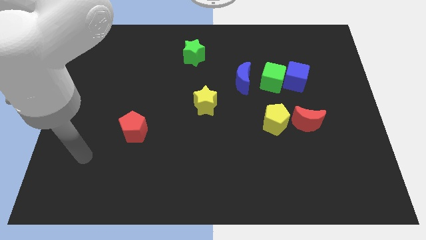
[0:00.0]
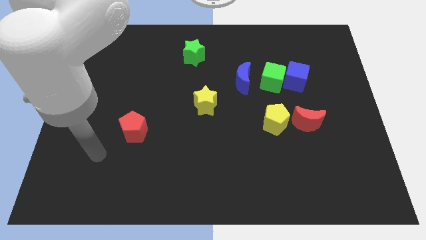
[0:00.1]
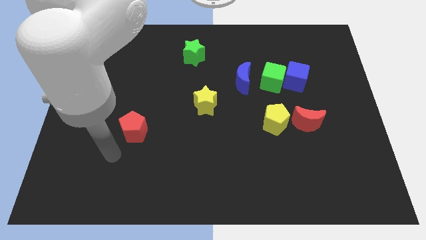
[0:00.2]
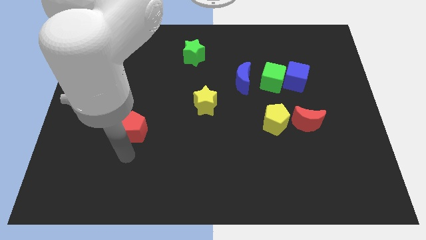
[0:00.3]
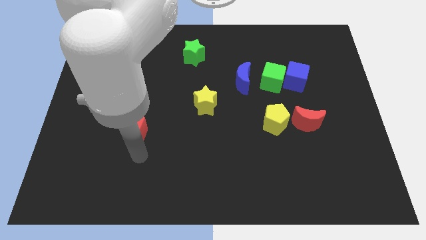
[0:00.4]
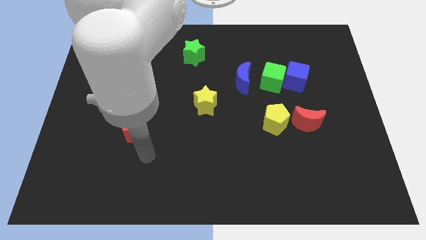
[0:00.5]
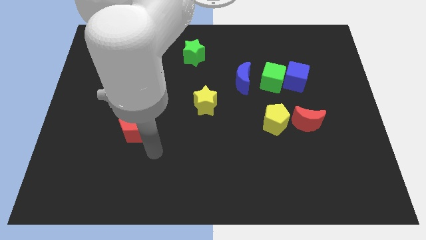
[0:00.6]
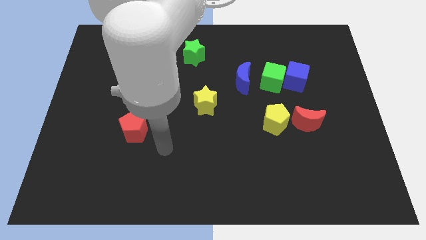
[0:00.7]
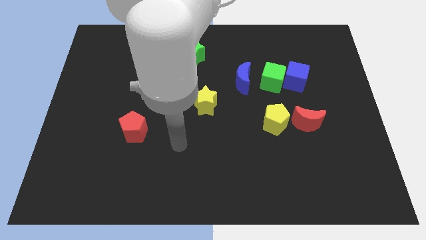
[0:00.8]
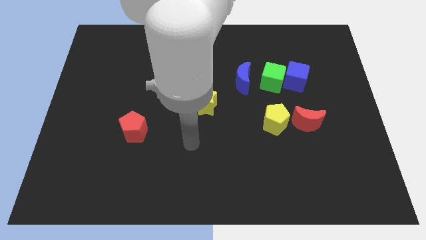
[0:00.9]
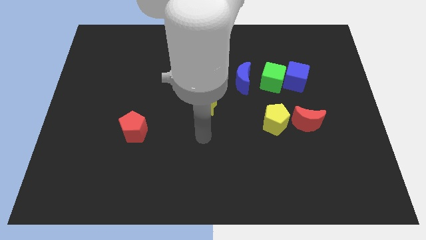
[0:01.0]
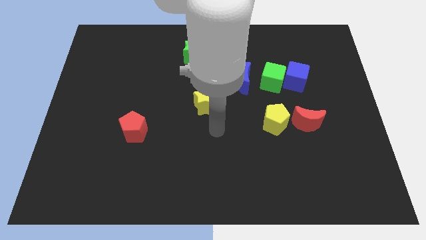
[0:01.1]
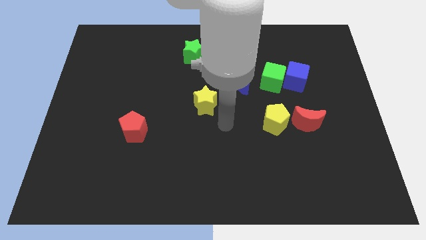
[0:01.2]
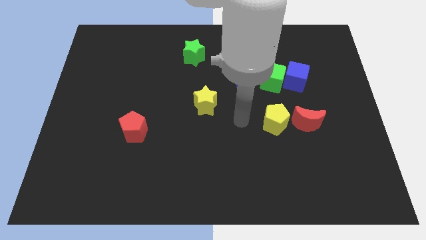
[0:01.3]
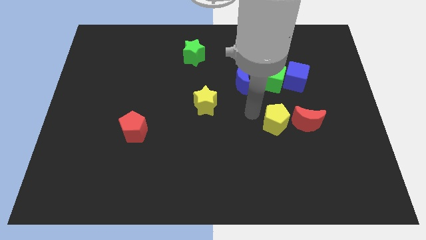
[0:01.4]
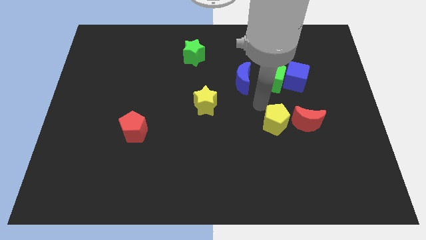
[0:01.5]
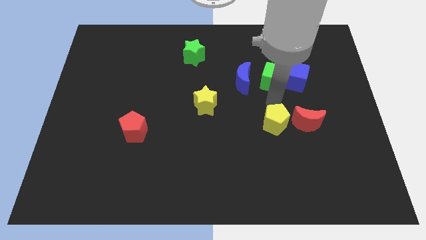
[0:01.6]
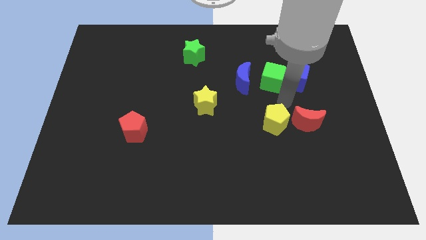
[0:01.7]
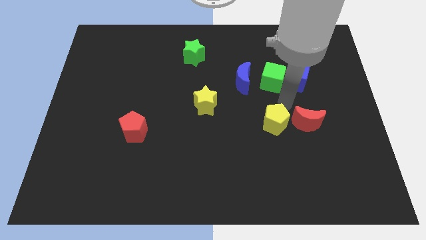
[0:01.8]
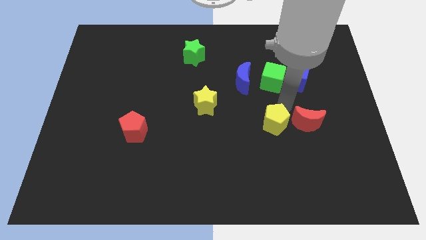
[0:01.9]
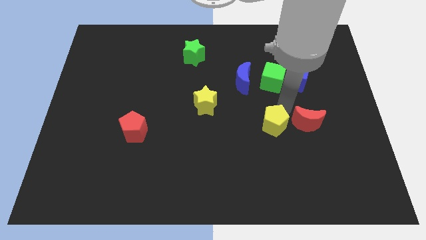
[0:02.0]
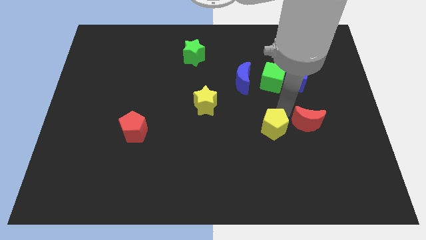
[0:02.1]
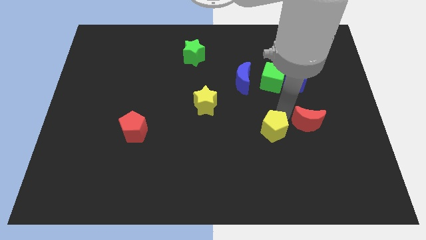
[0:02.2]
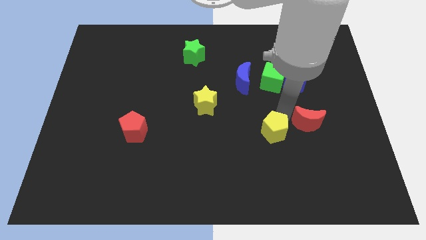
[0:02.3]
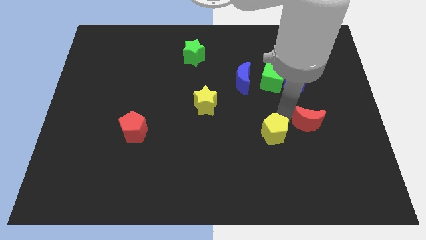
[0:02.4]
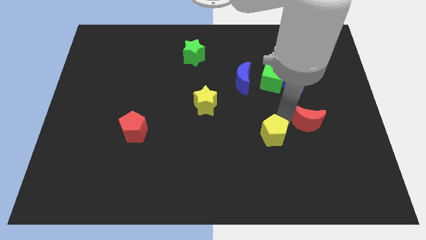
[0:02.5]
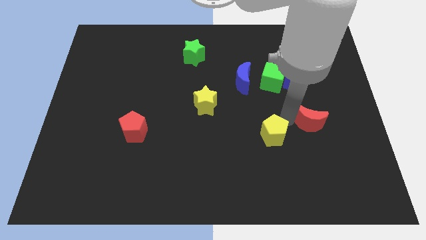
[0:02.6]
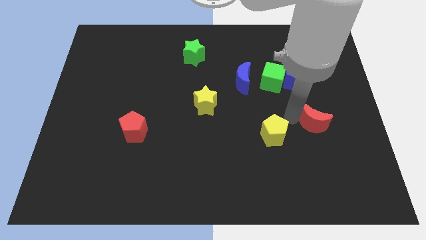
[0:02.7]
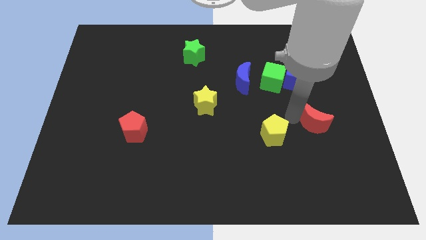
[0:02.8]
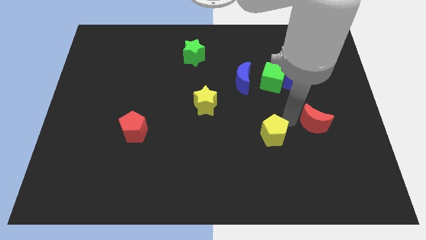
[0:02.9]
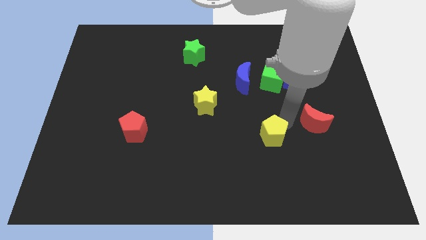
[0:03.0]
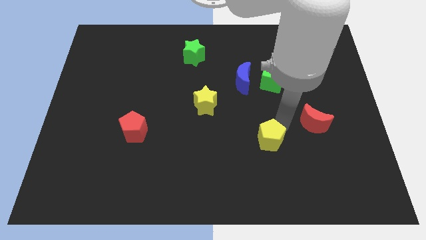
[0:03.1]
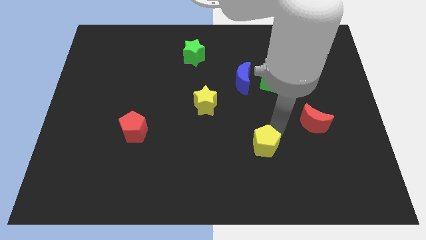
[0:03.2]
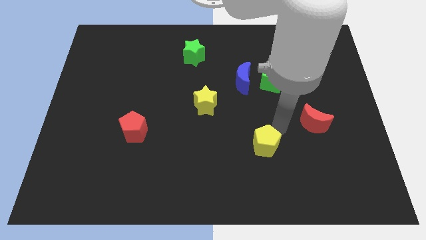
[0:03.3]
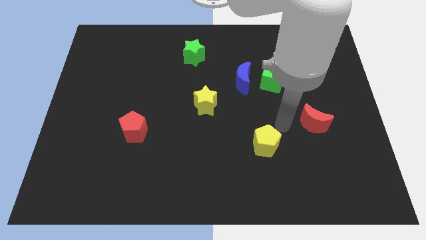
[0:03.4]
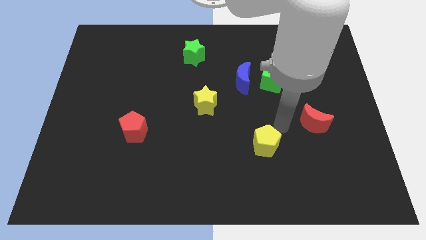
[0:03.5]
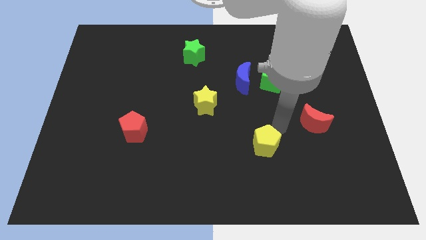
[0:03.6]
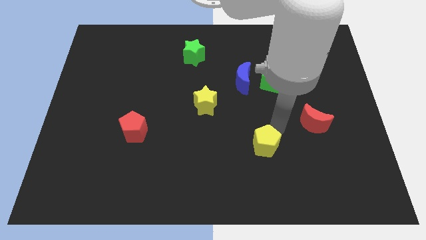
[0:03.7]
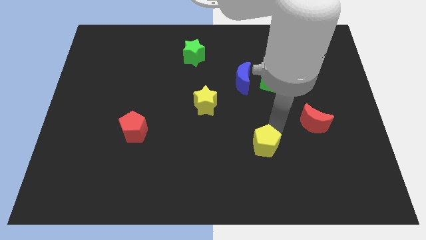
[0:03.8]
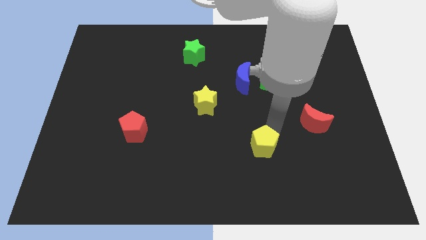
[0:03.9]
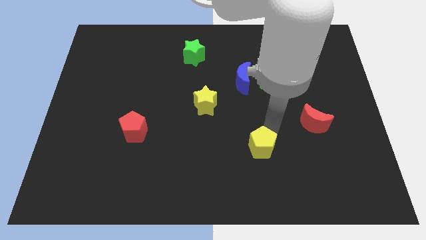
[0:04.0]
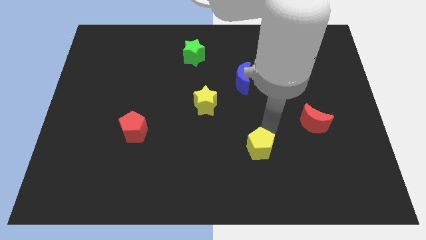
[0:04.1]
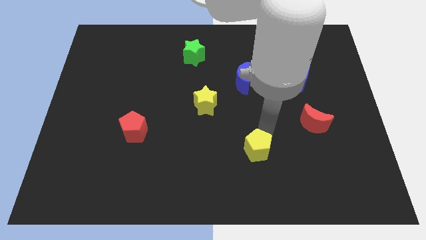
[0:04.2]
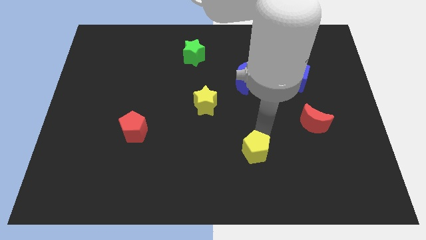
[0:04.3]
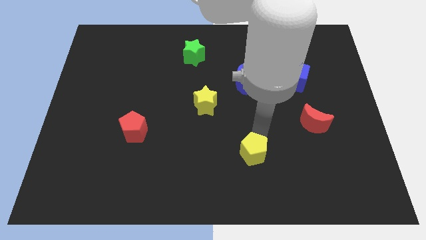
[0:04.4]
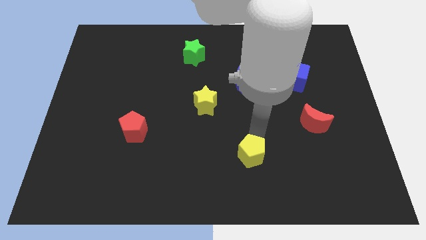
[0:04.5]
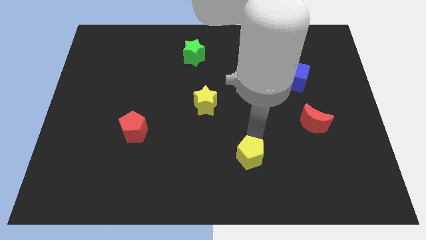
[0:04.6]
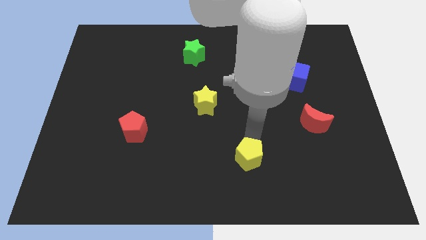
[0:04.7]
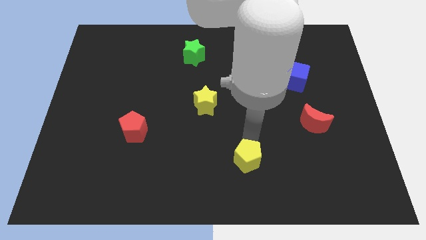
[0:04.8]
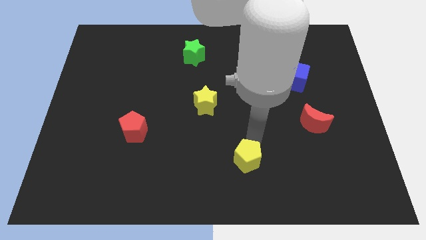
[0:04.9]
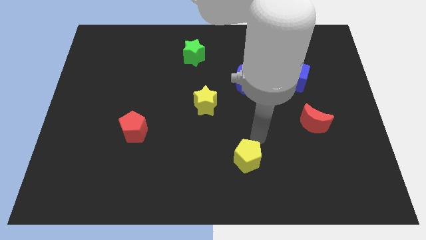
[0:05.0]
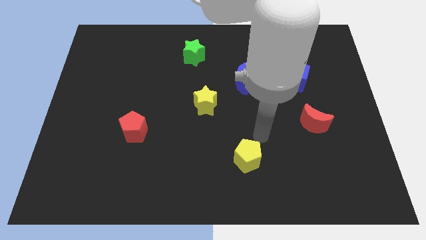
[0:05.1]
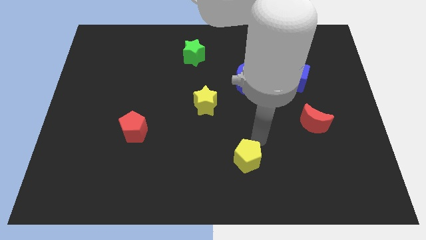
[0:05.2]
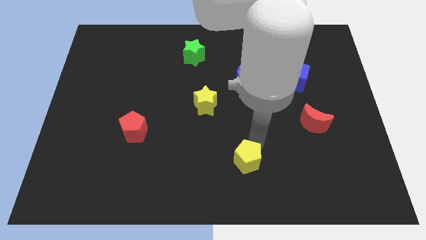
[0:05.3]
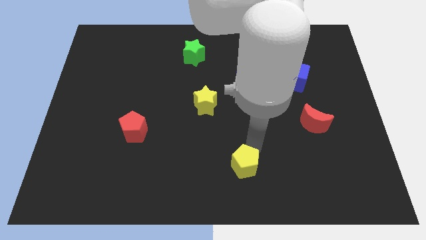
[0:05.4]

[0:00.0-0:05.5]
push the yellow pentagon to the bottom side

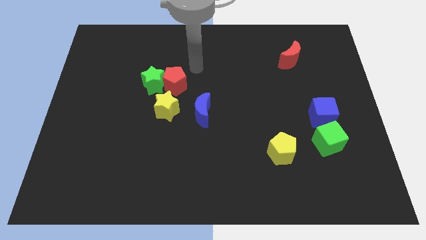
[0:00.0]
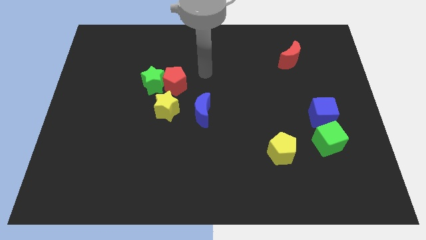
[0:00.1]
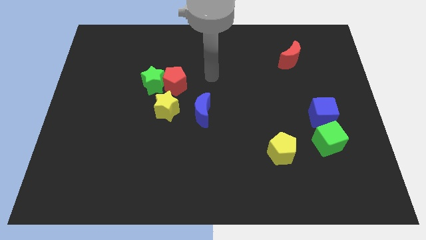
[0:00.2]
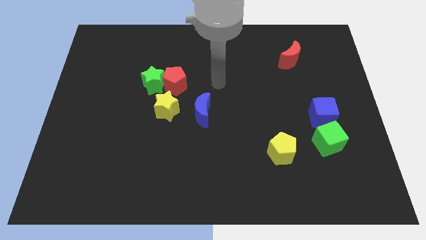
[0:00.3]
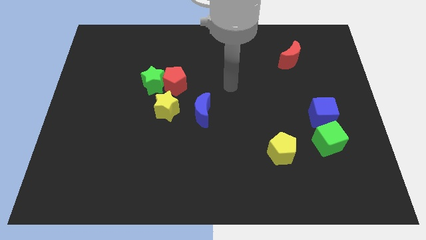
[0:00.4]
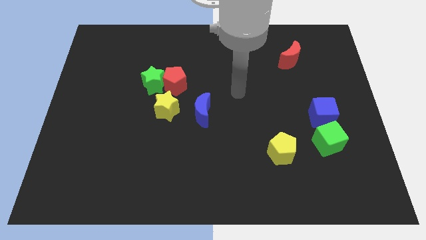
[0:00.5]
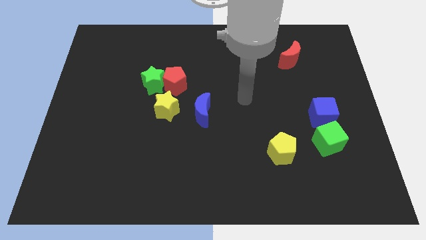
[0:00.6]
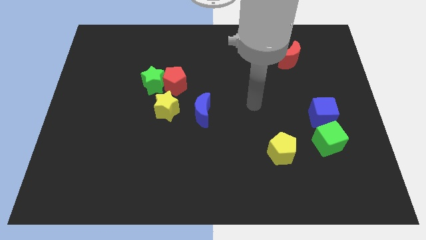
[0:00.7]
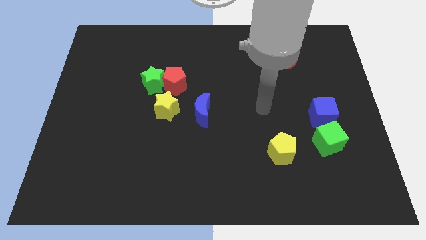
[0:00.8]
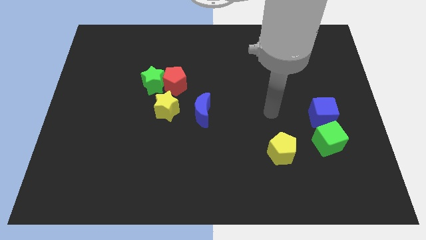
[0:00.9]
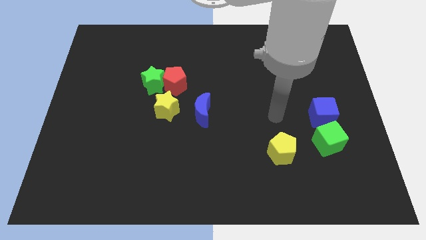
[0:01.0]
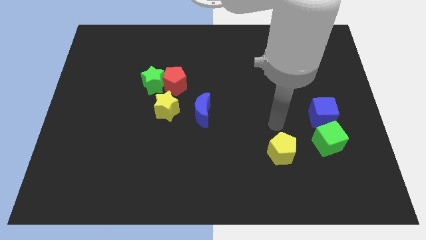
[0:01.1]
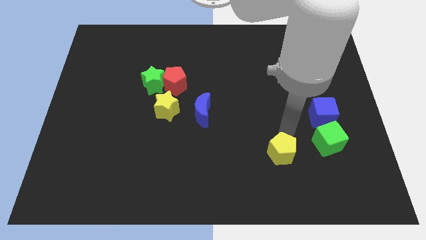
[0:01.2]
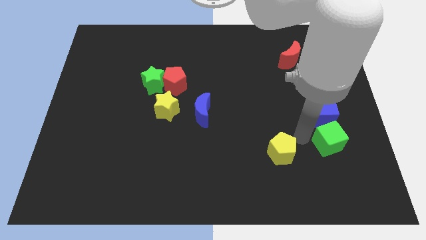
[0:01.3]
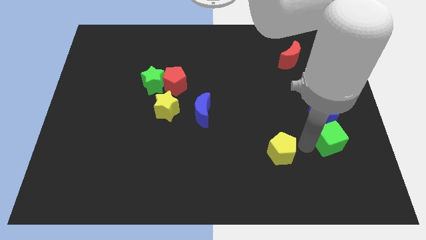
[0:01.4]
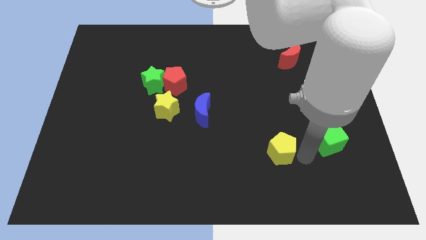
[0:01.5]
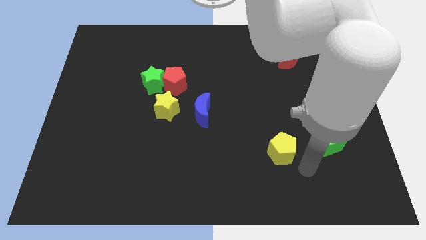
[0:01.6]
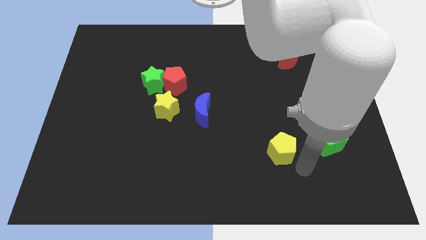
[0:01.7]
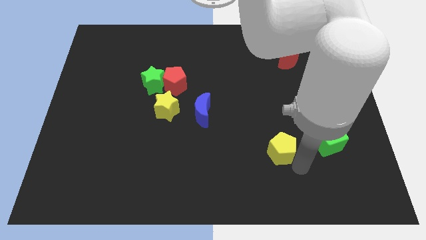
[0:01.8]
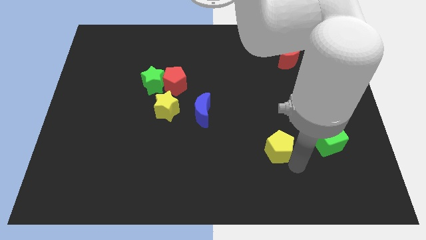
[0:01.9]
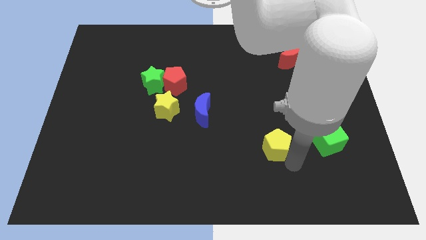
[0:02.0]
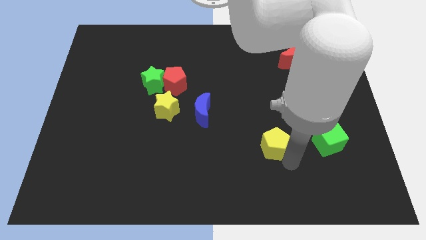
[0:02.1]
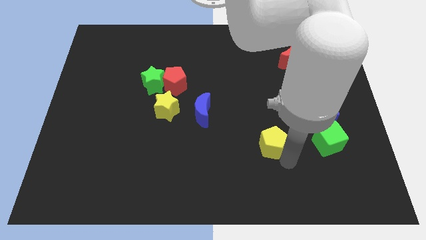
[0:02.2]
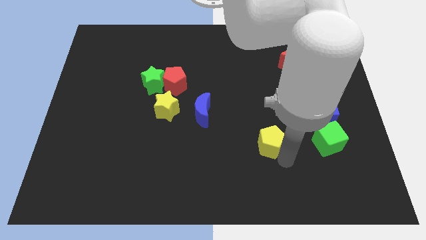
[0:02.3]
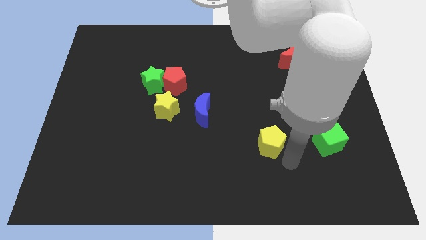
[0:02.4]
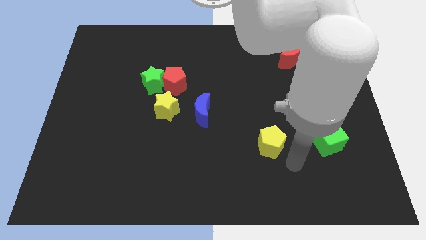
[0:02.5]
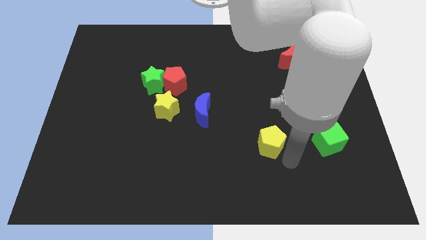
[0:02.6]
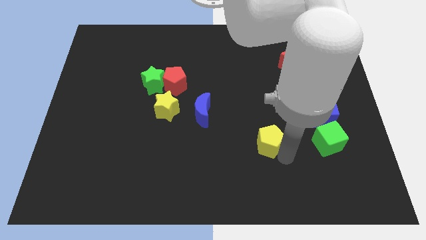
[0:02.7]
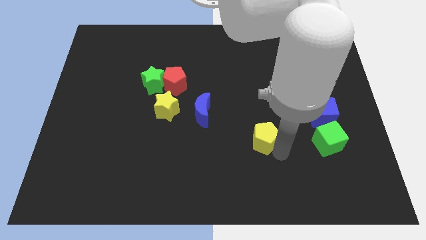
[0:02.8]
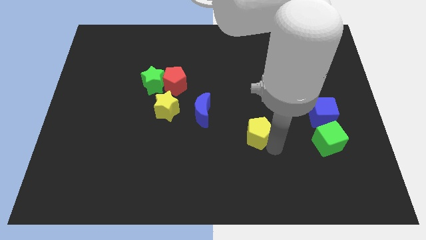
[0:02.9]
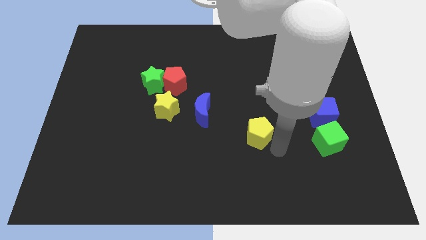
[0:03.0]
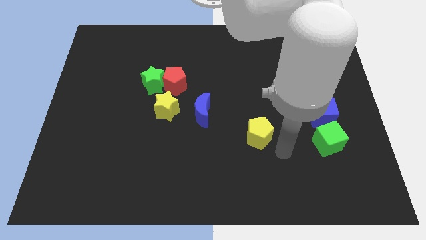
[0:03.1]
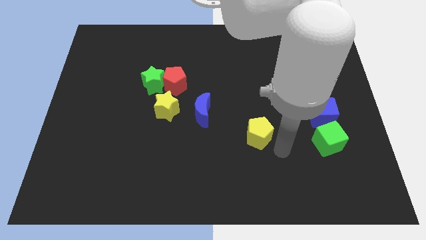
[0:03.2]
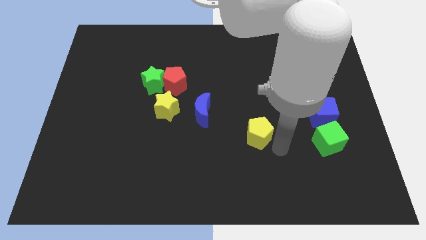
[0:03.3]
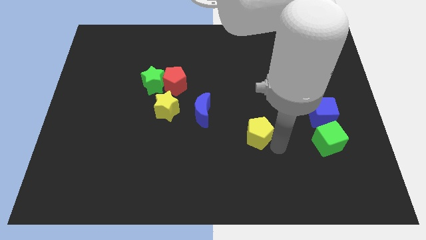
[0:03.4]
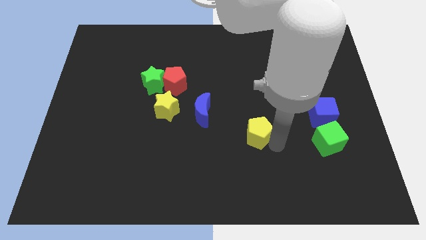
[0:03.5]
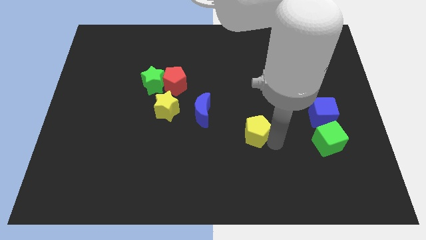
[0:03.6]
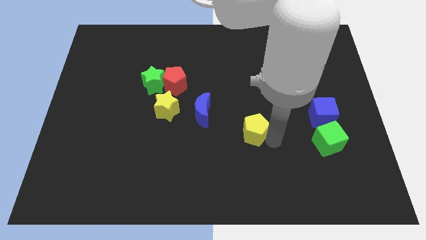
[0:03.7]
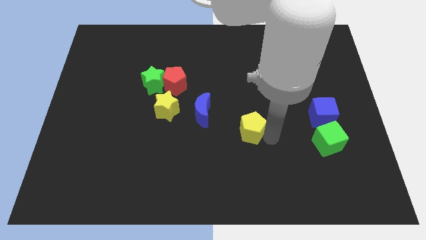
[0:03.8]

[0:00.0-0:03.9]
slide the yellow pentagon to the center
